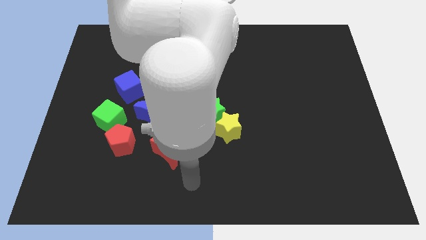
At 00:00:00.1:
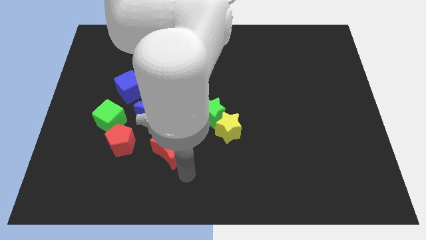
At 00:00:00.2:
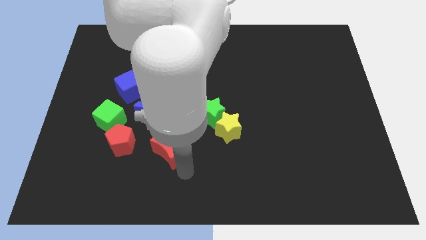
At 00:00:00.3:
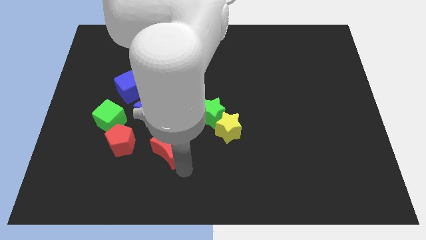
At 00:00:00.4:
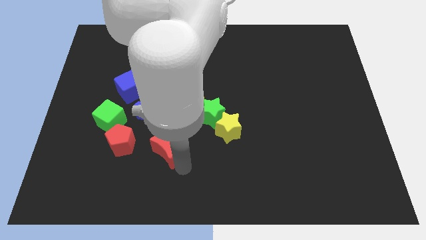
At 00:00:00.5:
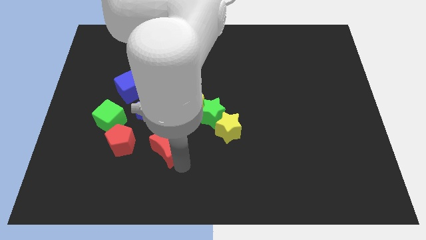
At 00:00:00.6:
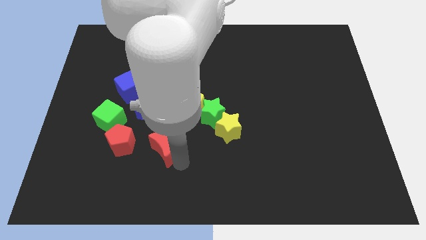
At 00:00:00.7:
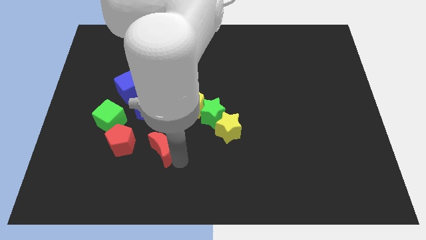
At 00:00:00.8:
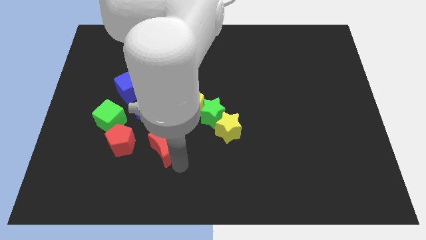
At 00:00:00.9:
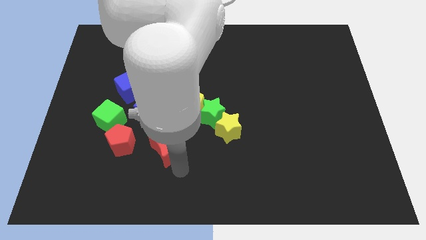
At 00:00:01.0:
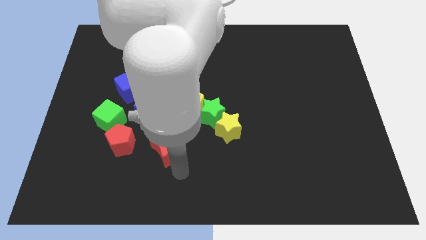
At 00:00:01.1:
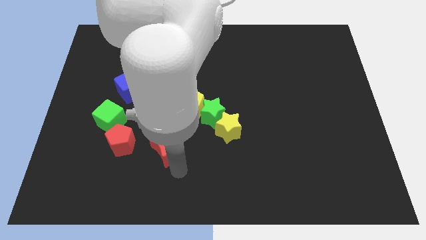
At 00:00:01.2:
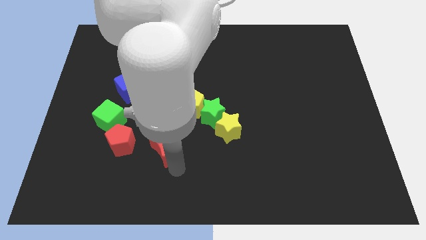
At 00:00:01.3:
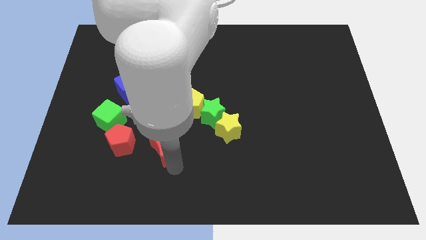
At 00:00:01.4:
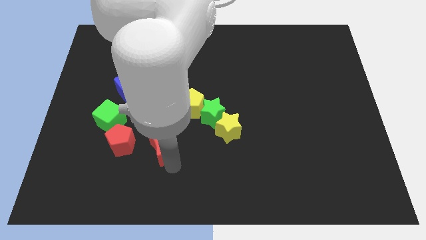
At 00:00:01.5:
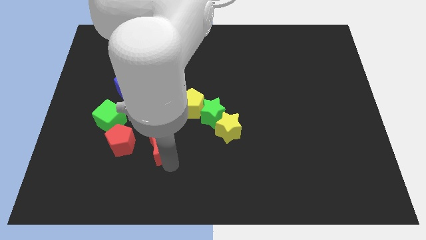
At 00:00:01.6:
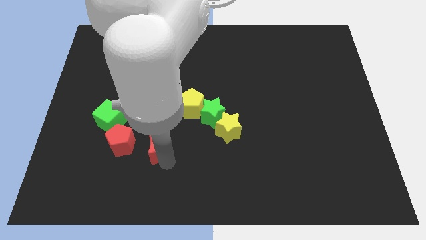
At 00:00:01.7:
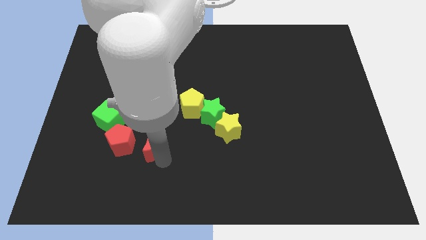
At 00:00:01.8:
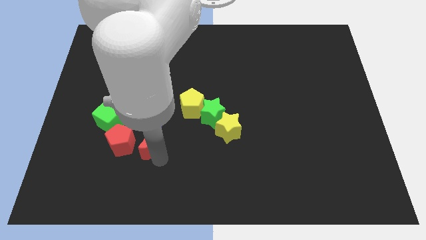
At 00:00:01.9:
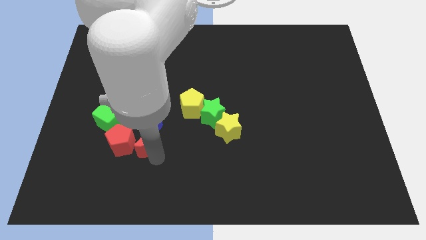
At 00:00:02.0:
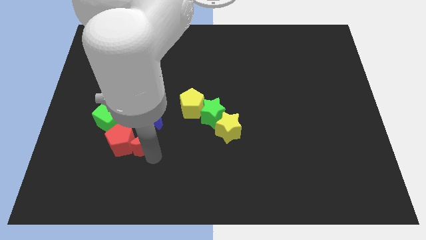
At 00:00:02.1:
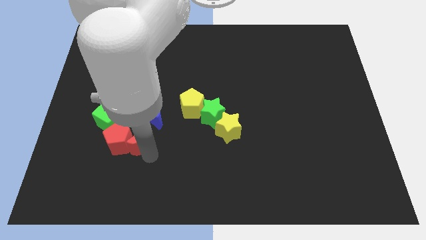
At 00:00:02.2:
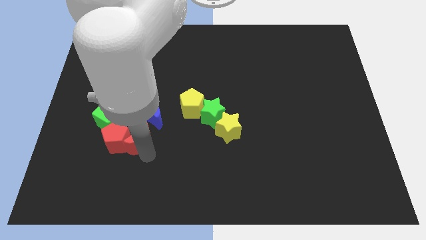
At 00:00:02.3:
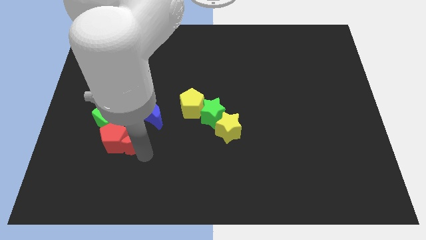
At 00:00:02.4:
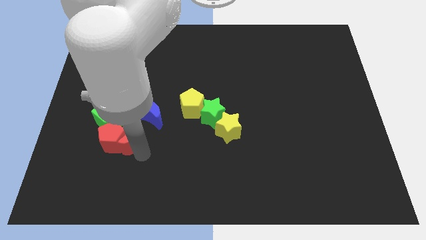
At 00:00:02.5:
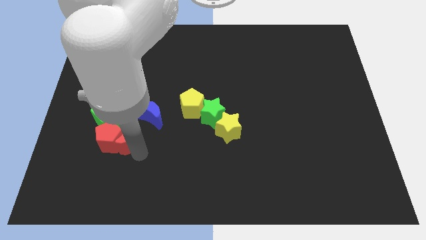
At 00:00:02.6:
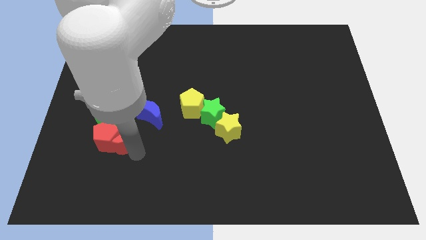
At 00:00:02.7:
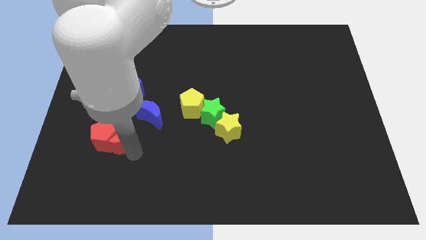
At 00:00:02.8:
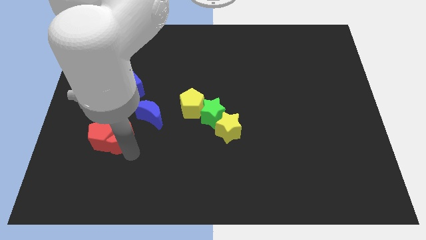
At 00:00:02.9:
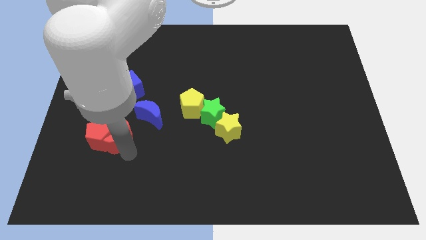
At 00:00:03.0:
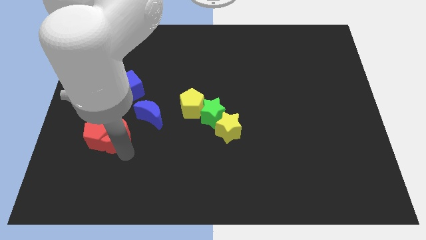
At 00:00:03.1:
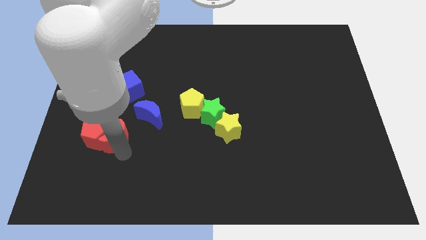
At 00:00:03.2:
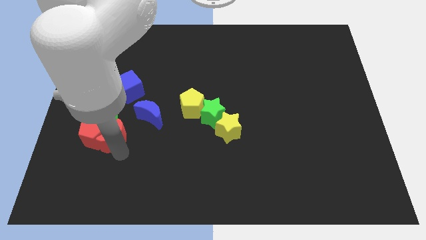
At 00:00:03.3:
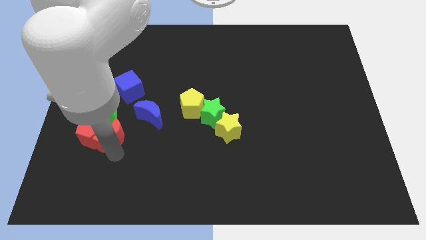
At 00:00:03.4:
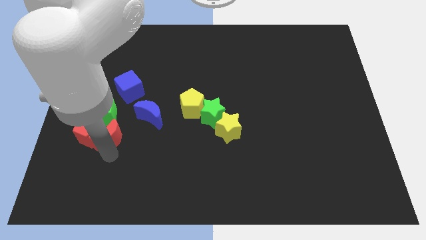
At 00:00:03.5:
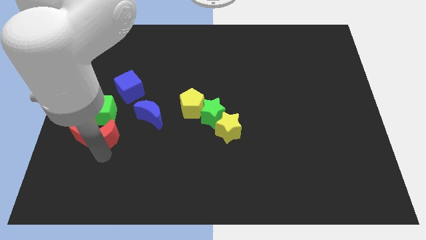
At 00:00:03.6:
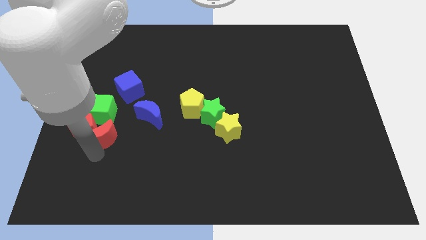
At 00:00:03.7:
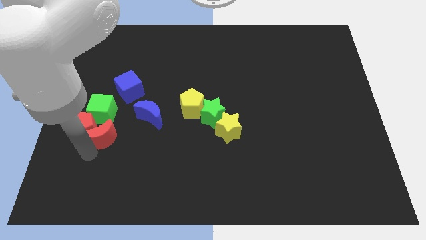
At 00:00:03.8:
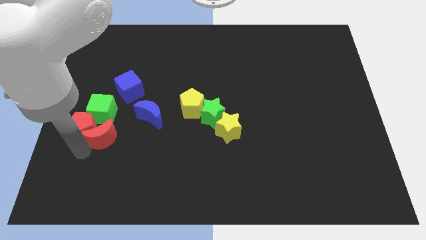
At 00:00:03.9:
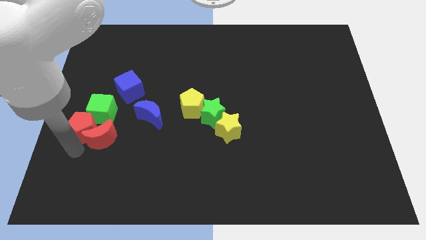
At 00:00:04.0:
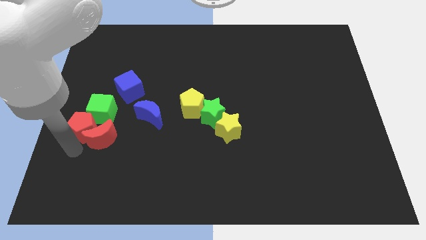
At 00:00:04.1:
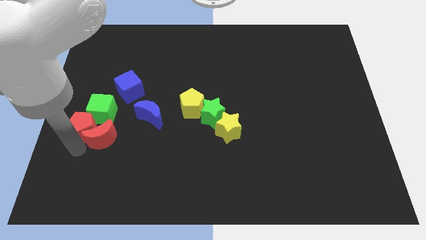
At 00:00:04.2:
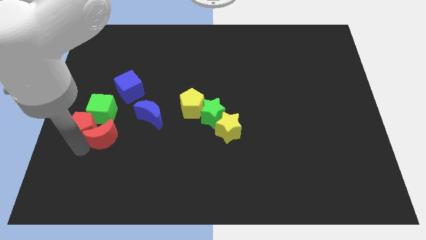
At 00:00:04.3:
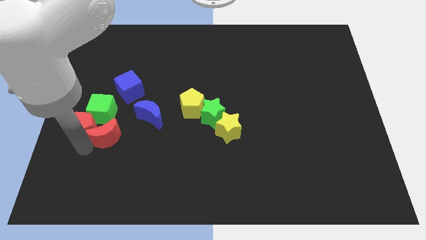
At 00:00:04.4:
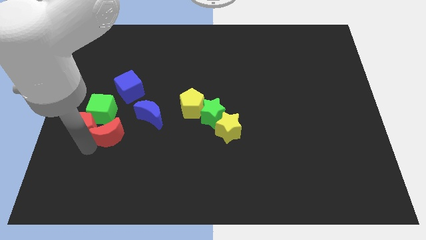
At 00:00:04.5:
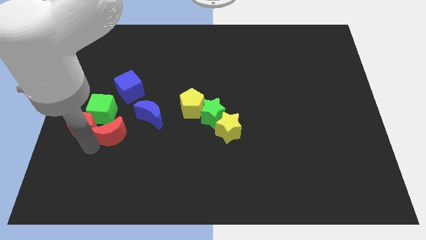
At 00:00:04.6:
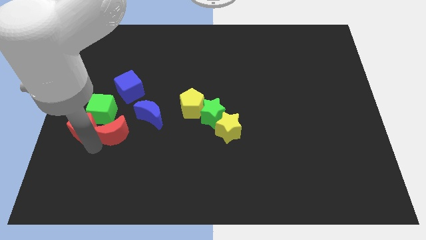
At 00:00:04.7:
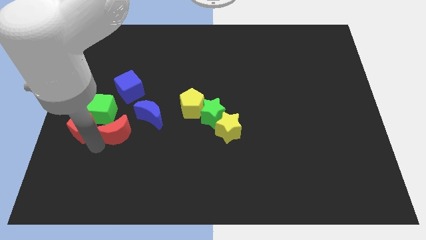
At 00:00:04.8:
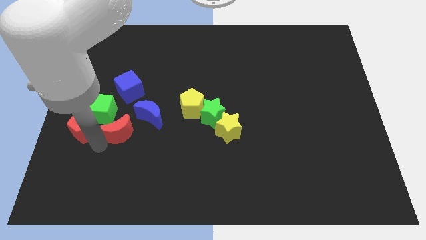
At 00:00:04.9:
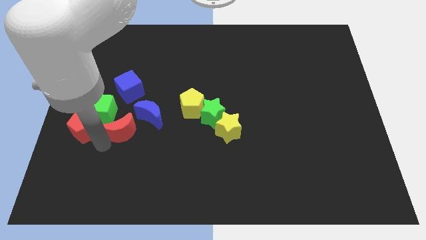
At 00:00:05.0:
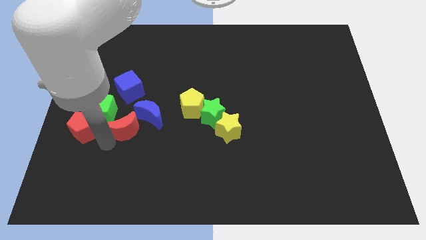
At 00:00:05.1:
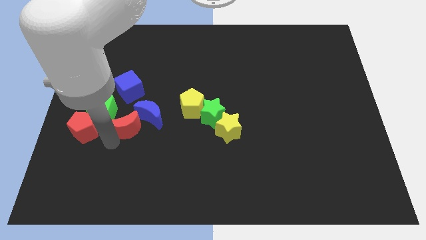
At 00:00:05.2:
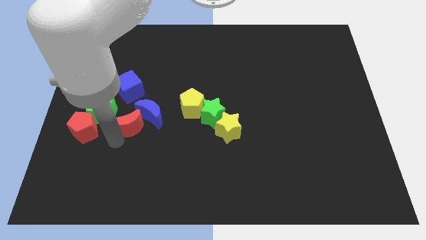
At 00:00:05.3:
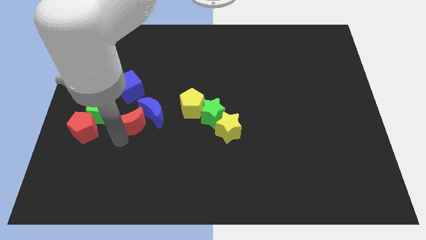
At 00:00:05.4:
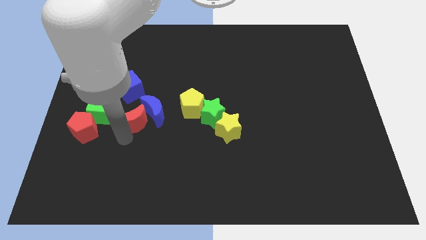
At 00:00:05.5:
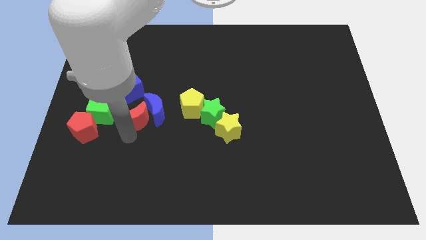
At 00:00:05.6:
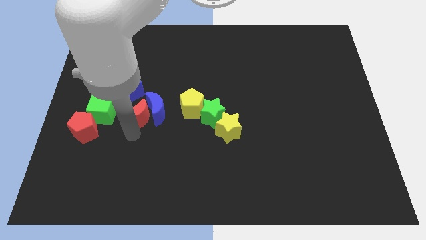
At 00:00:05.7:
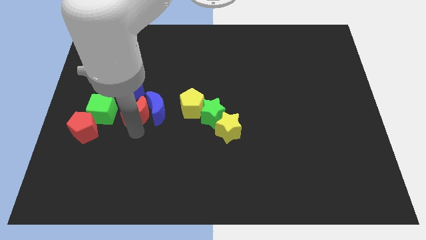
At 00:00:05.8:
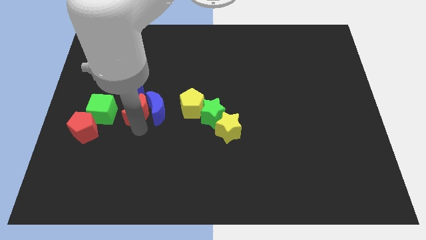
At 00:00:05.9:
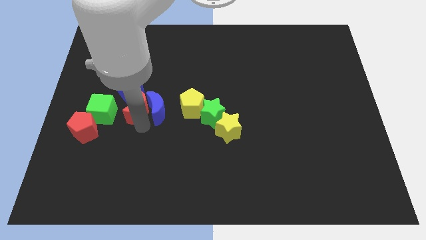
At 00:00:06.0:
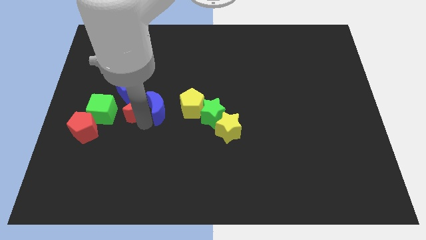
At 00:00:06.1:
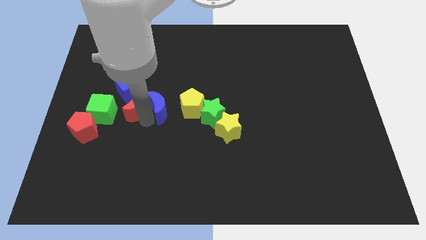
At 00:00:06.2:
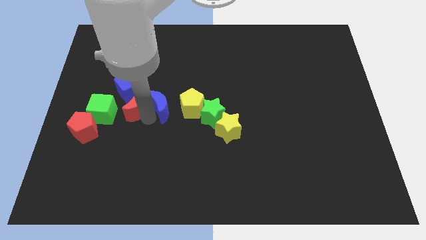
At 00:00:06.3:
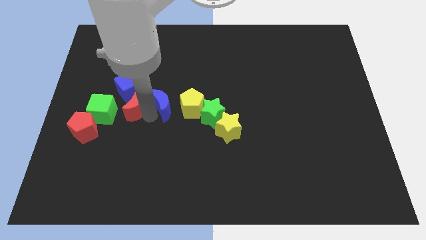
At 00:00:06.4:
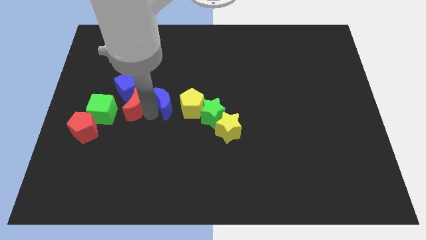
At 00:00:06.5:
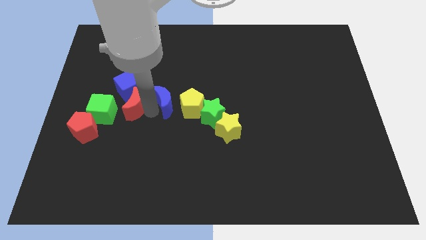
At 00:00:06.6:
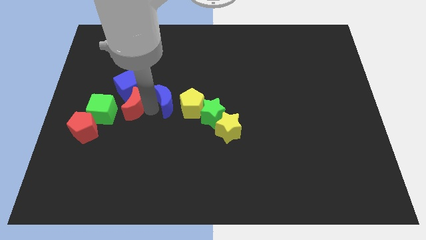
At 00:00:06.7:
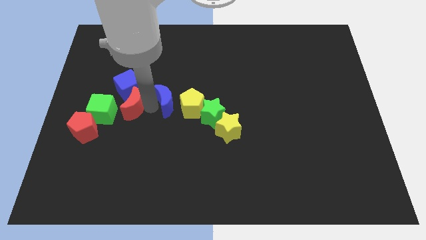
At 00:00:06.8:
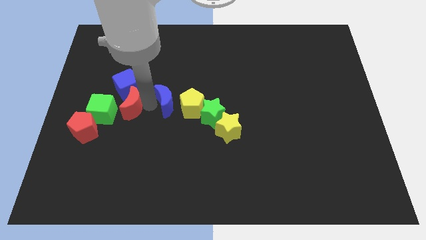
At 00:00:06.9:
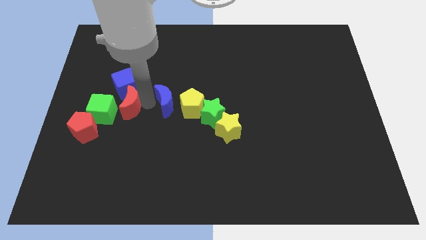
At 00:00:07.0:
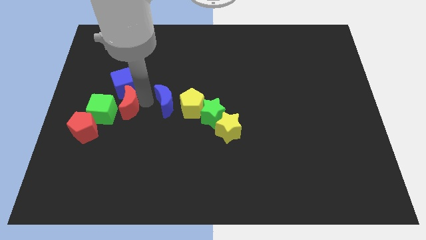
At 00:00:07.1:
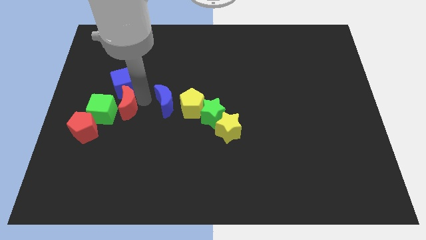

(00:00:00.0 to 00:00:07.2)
push the red moon towards the green cube

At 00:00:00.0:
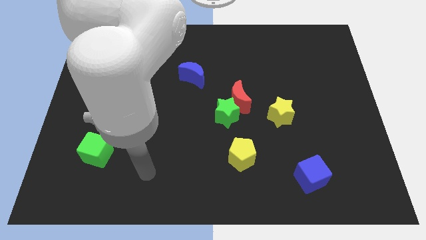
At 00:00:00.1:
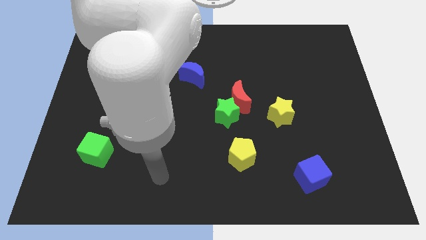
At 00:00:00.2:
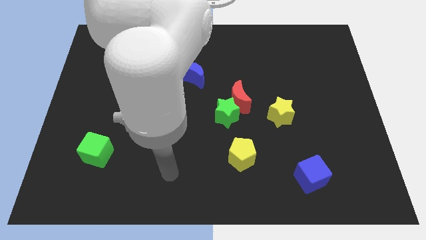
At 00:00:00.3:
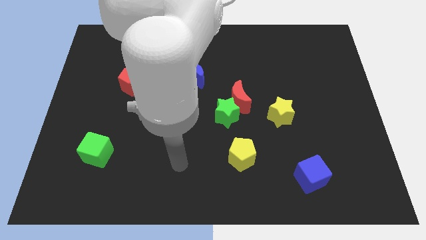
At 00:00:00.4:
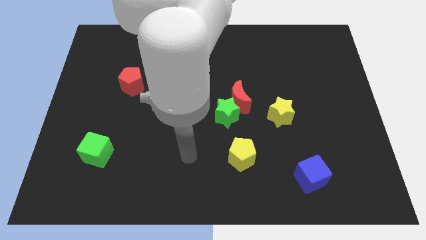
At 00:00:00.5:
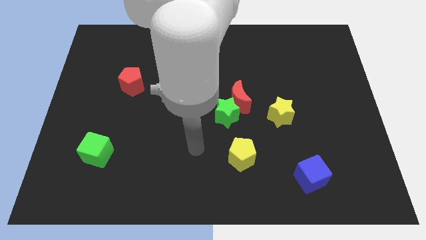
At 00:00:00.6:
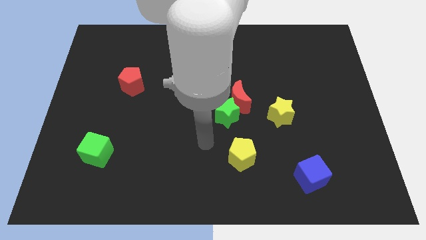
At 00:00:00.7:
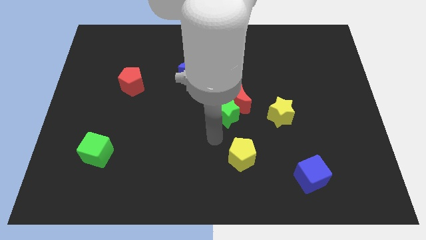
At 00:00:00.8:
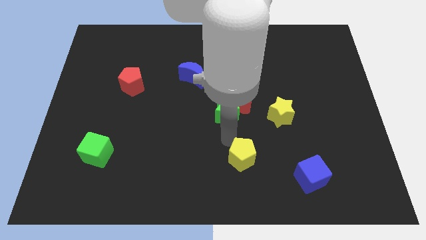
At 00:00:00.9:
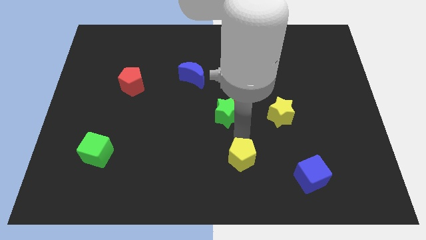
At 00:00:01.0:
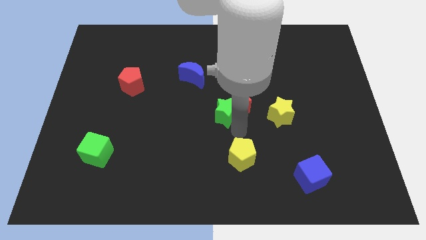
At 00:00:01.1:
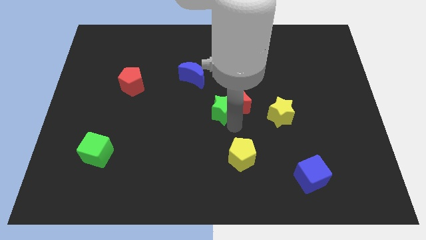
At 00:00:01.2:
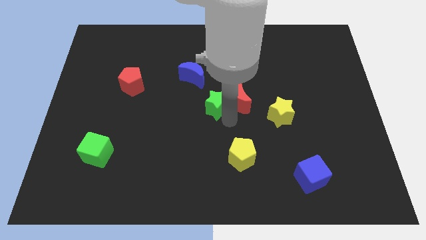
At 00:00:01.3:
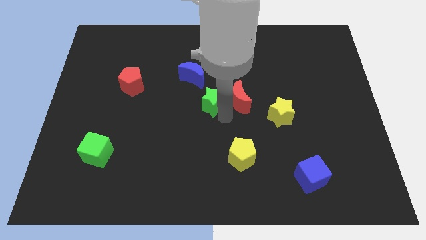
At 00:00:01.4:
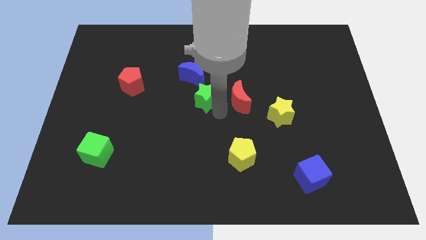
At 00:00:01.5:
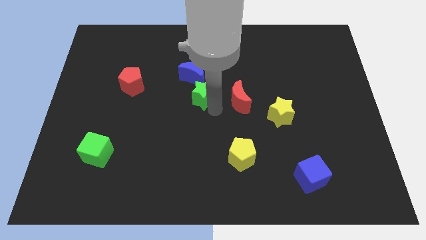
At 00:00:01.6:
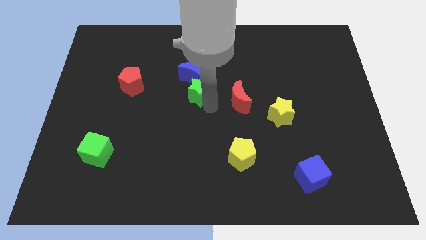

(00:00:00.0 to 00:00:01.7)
slide the green star towards the blue moon
